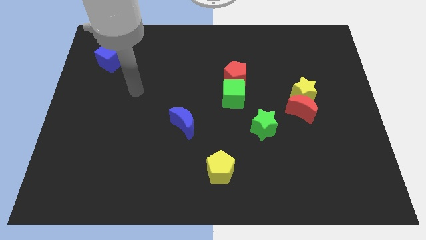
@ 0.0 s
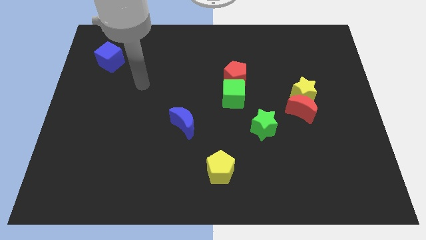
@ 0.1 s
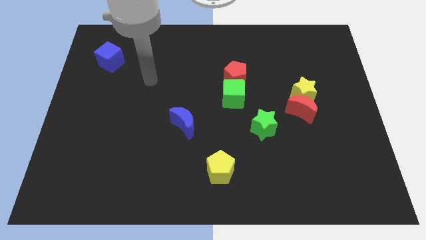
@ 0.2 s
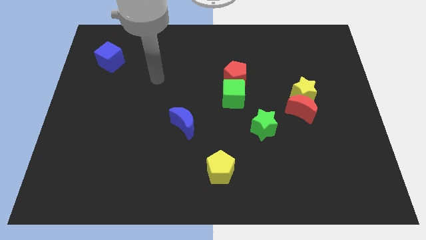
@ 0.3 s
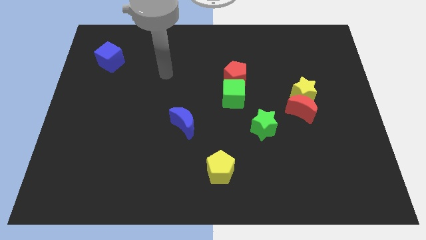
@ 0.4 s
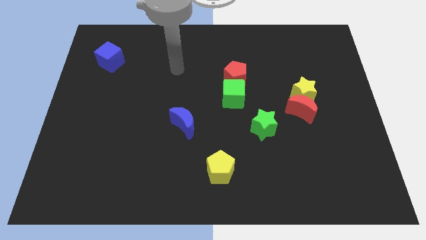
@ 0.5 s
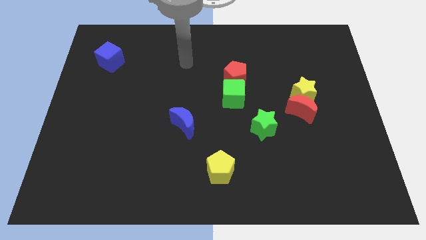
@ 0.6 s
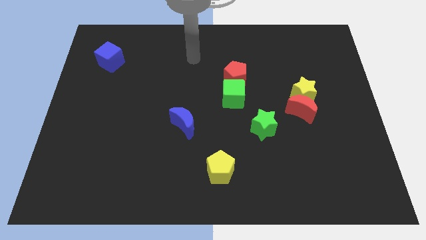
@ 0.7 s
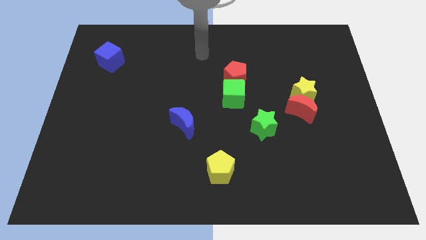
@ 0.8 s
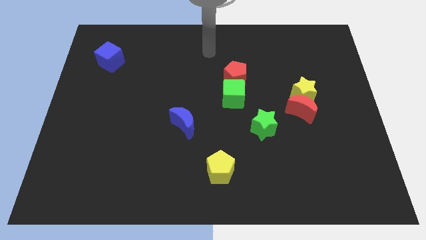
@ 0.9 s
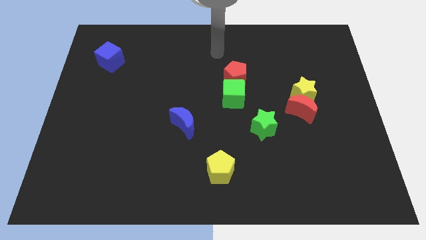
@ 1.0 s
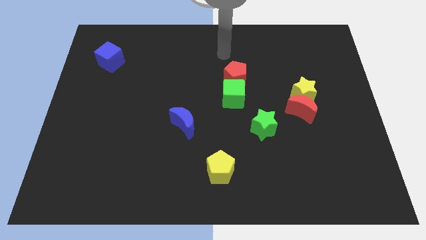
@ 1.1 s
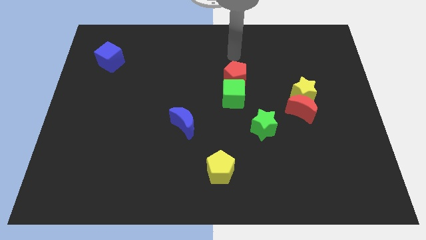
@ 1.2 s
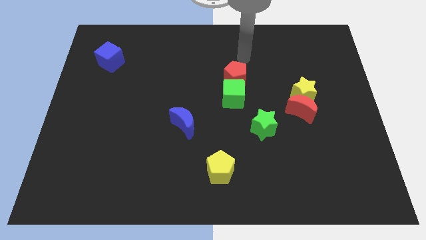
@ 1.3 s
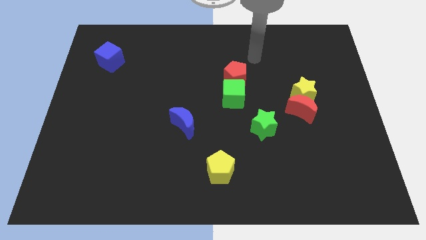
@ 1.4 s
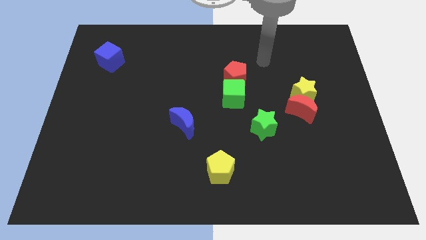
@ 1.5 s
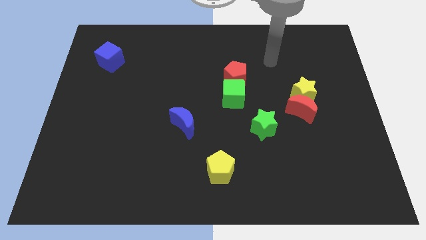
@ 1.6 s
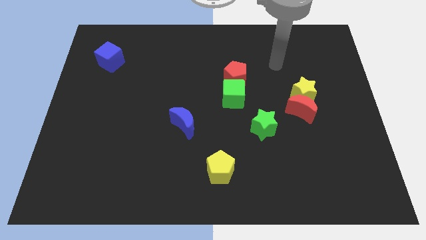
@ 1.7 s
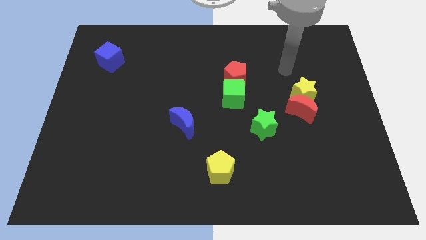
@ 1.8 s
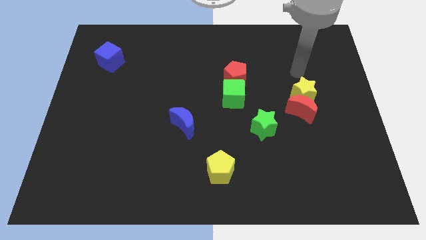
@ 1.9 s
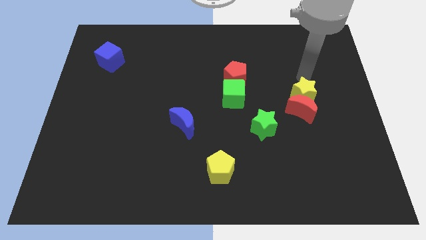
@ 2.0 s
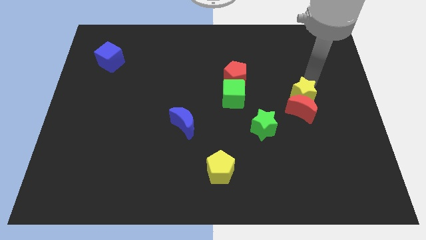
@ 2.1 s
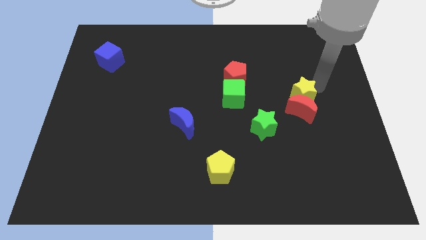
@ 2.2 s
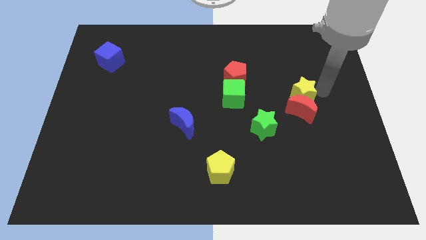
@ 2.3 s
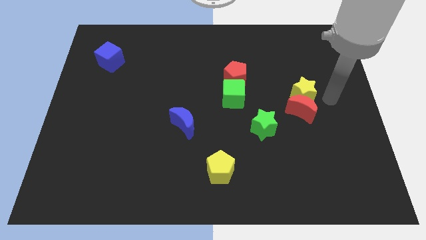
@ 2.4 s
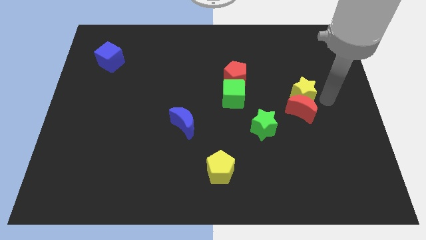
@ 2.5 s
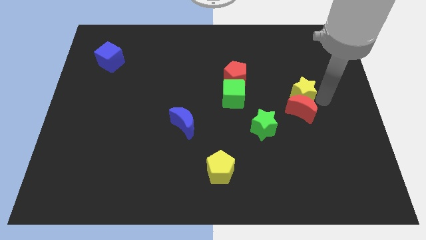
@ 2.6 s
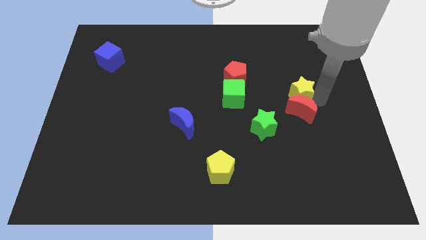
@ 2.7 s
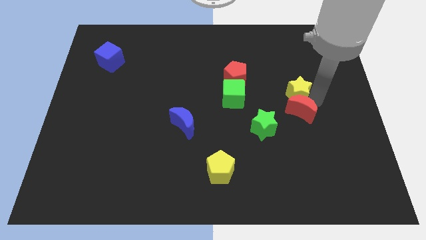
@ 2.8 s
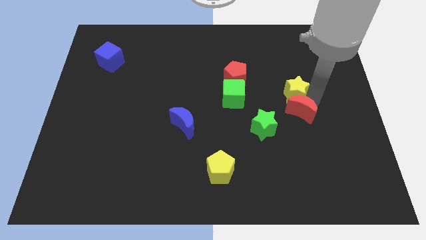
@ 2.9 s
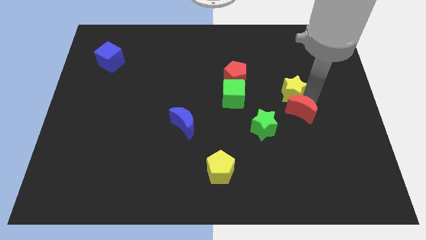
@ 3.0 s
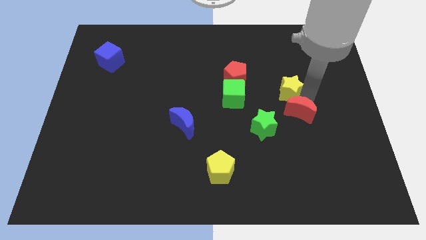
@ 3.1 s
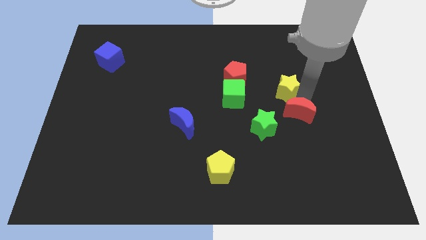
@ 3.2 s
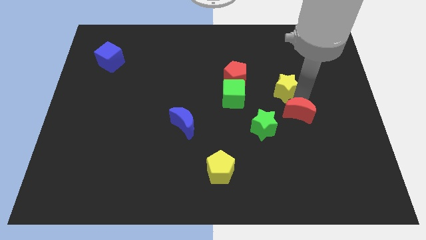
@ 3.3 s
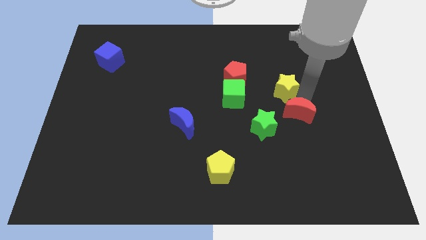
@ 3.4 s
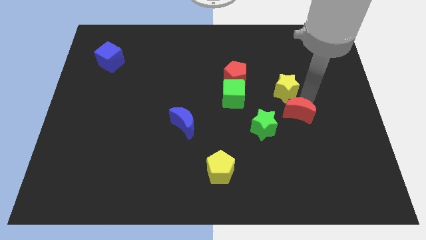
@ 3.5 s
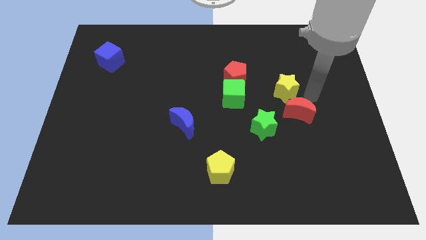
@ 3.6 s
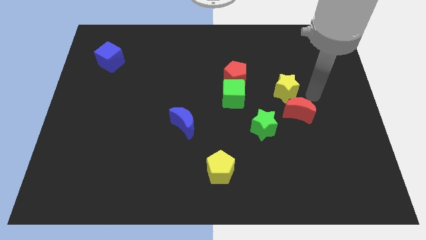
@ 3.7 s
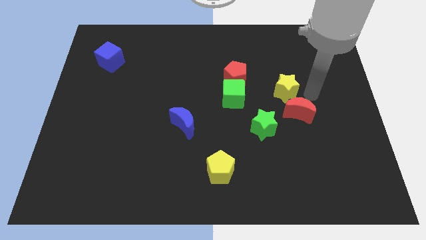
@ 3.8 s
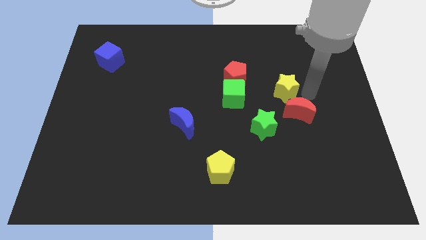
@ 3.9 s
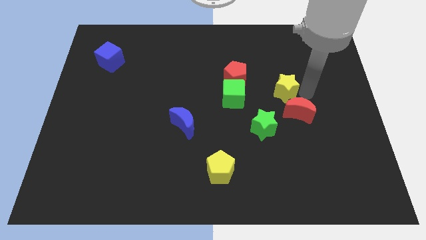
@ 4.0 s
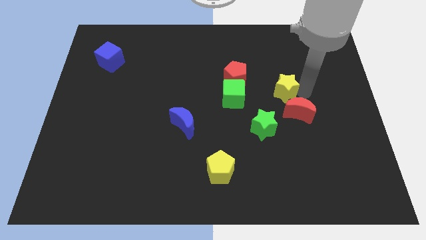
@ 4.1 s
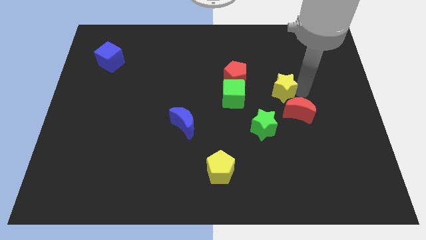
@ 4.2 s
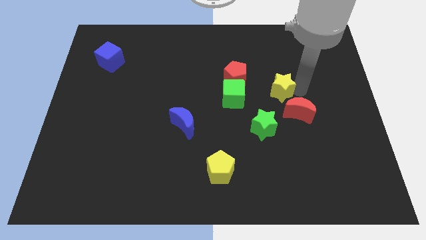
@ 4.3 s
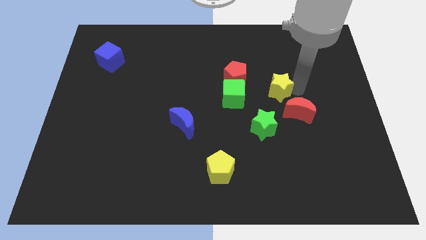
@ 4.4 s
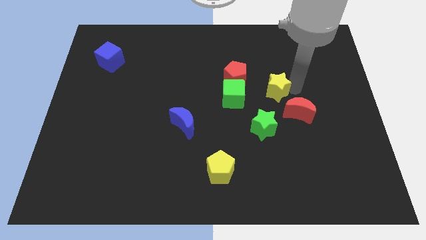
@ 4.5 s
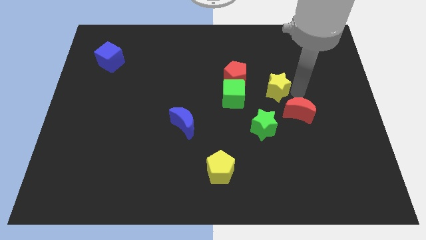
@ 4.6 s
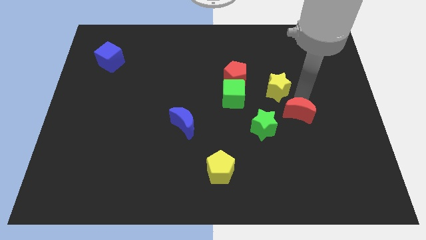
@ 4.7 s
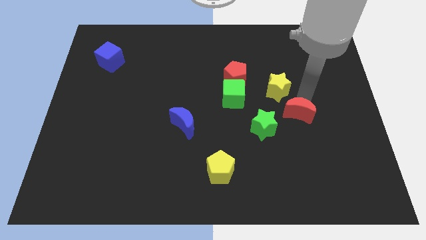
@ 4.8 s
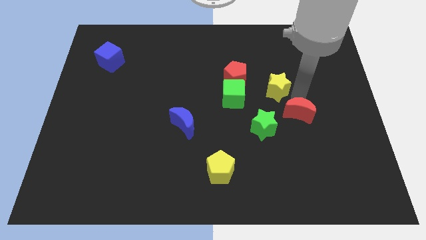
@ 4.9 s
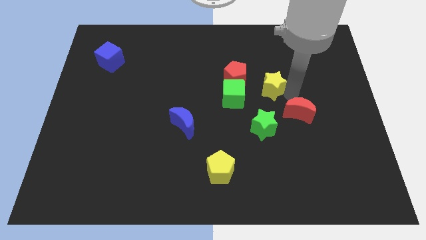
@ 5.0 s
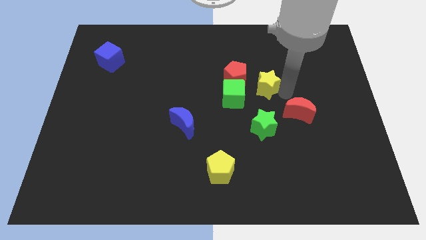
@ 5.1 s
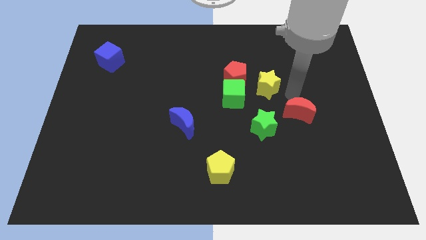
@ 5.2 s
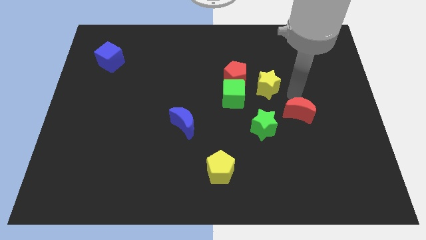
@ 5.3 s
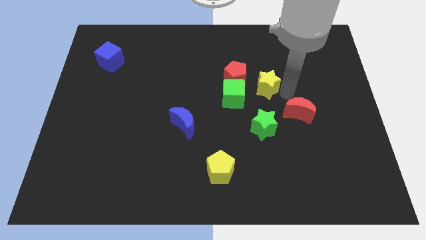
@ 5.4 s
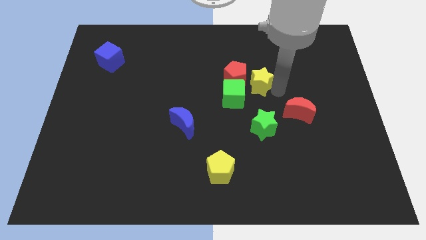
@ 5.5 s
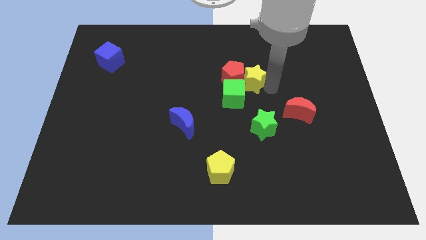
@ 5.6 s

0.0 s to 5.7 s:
slide the yellow star towards the red pentagon

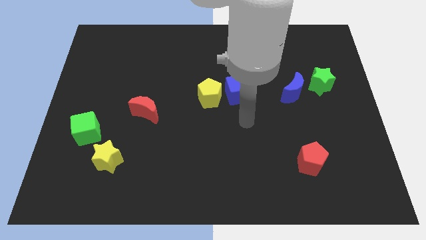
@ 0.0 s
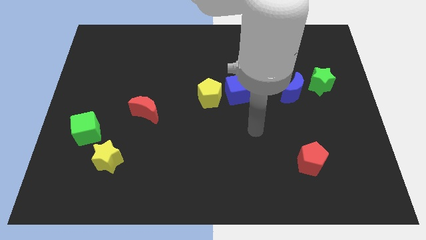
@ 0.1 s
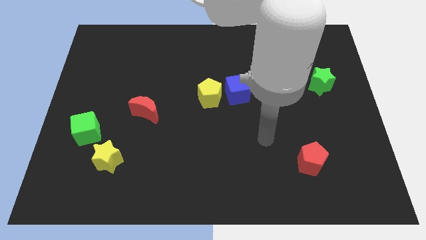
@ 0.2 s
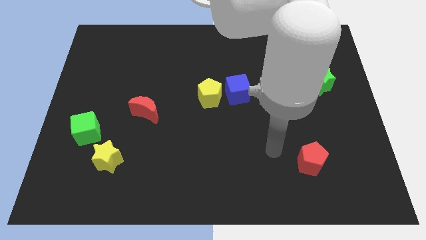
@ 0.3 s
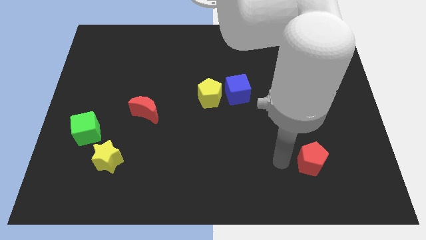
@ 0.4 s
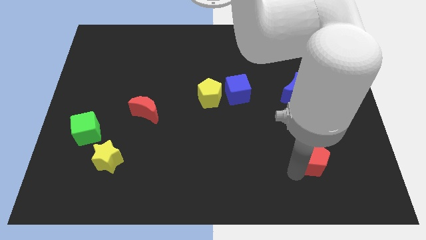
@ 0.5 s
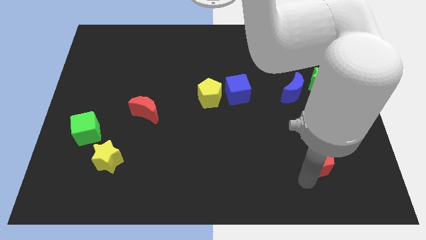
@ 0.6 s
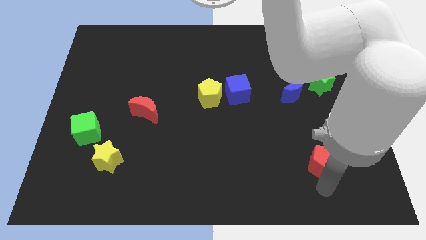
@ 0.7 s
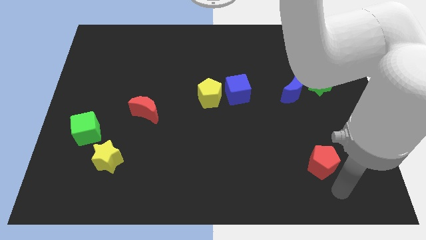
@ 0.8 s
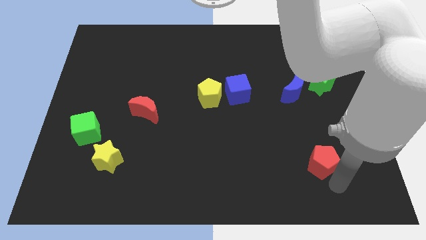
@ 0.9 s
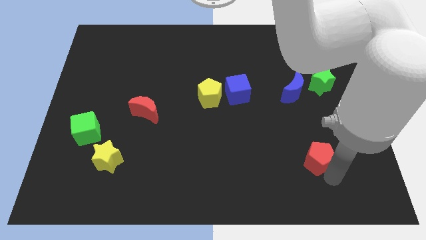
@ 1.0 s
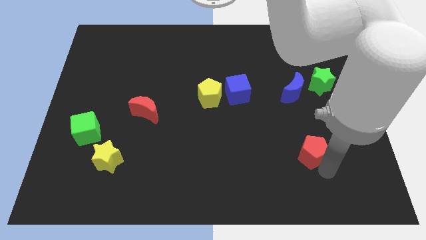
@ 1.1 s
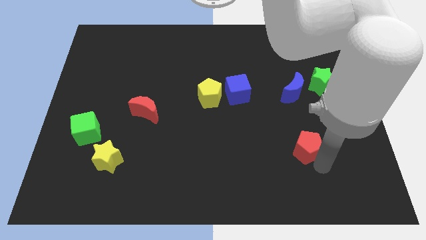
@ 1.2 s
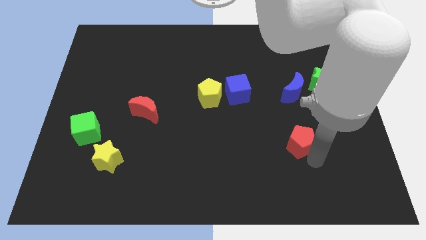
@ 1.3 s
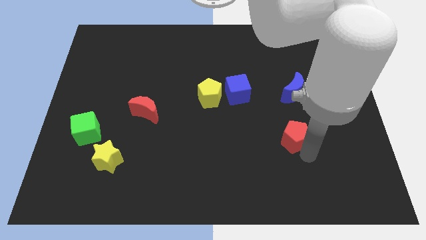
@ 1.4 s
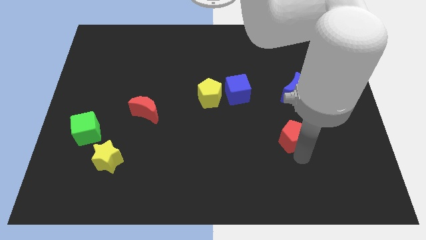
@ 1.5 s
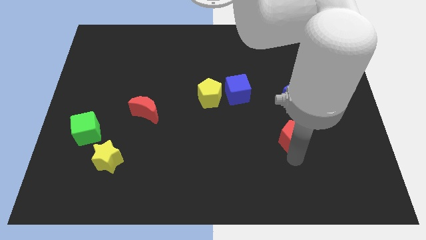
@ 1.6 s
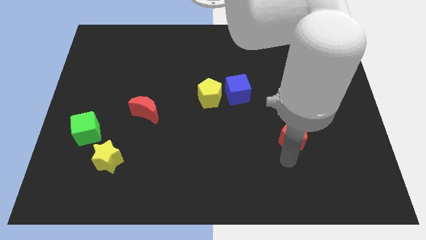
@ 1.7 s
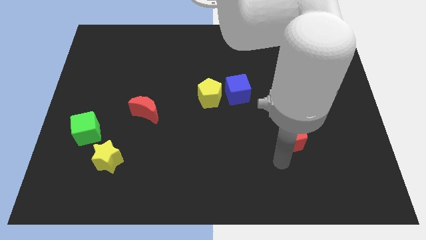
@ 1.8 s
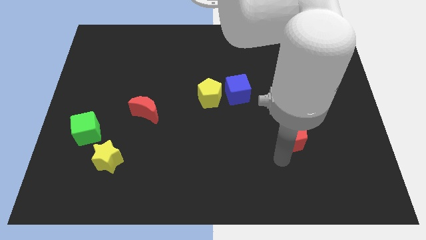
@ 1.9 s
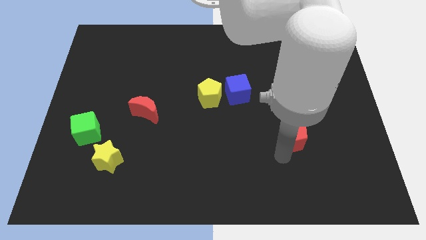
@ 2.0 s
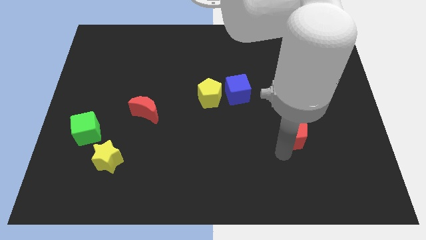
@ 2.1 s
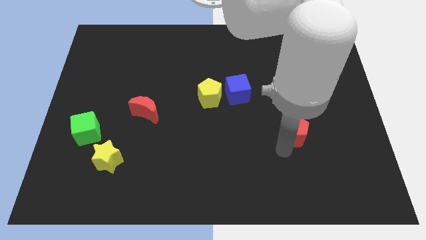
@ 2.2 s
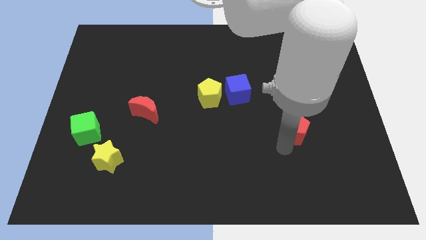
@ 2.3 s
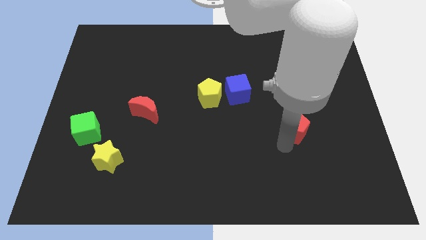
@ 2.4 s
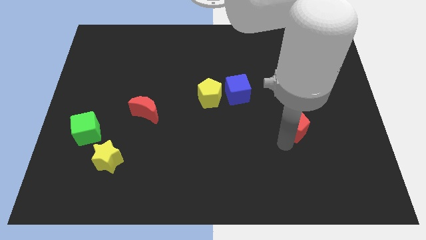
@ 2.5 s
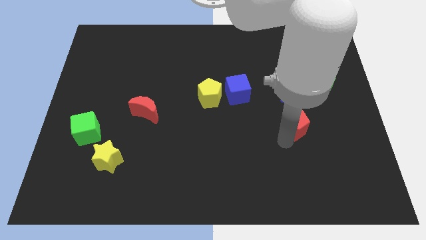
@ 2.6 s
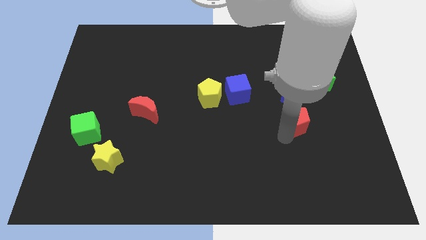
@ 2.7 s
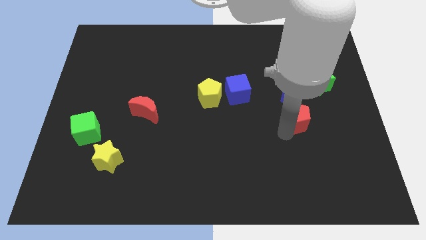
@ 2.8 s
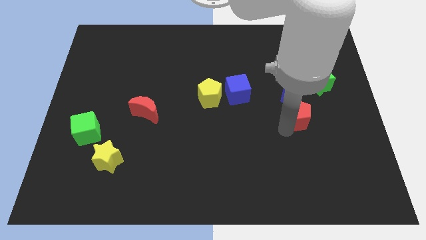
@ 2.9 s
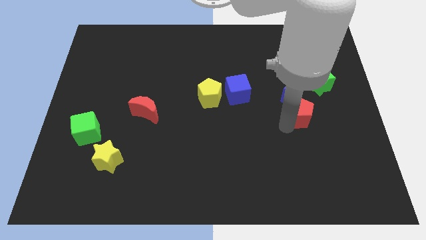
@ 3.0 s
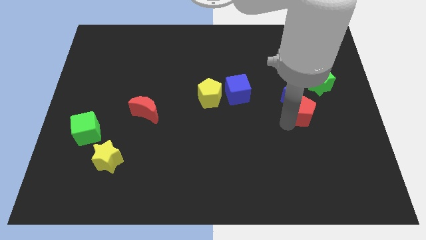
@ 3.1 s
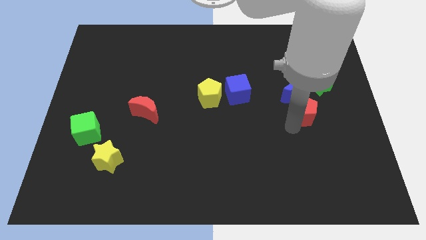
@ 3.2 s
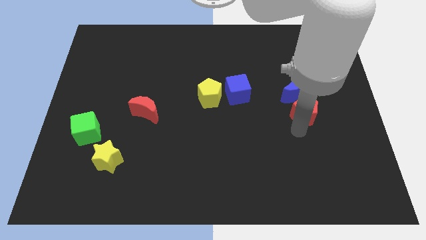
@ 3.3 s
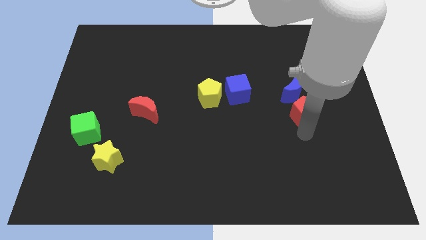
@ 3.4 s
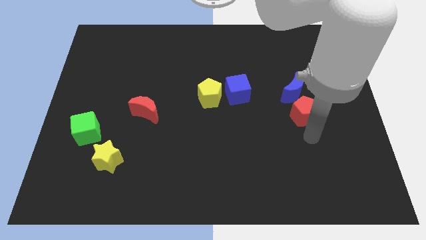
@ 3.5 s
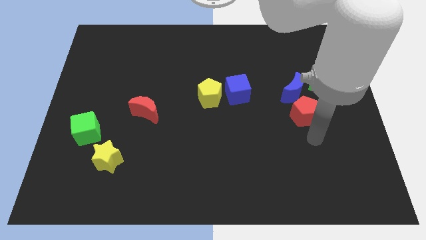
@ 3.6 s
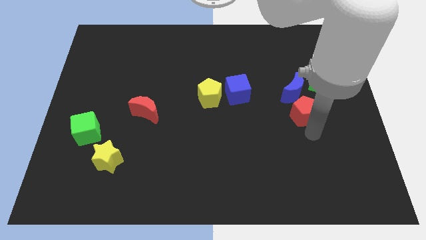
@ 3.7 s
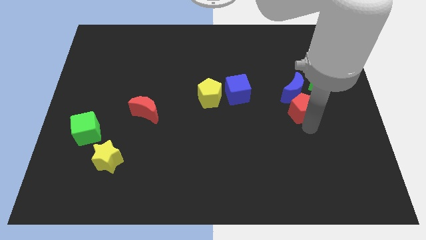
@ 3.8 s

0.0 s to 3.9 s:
slide the red pentagon next to the blue moon
